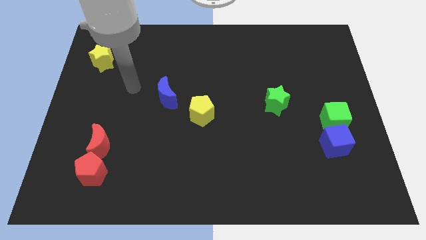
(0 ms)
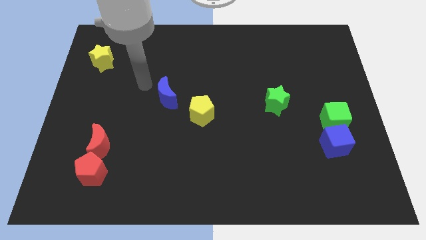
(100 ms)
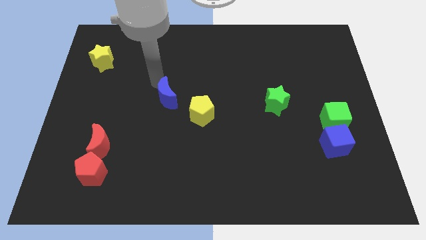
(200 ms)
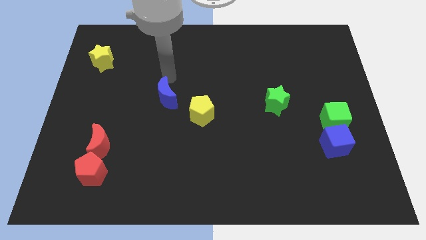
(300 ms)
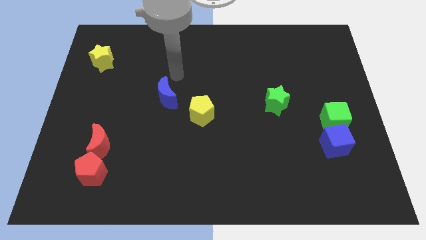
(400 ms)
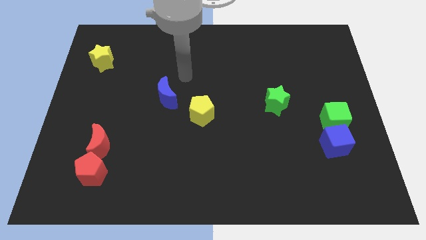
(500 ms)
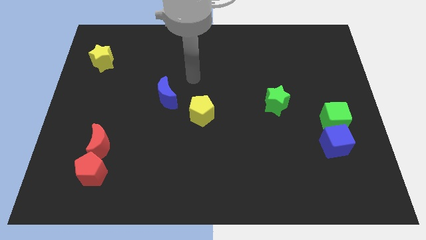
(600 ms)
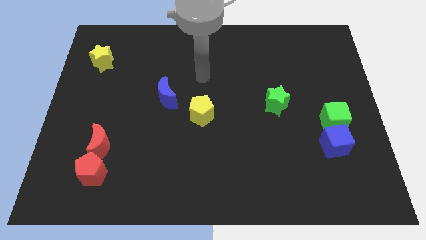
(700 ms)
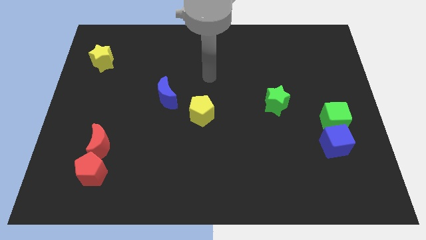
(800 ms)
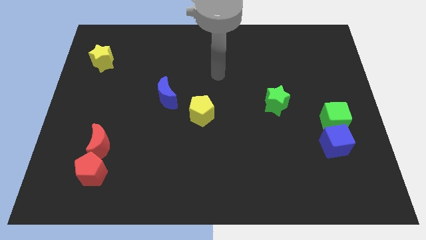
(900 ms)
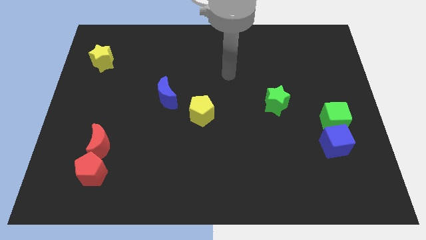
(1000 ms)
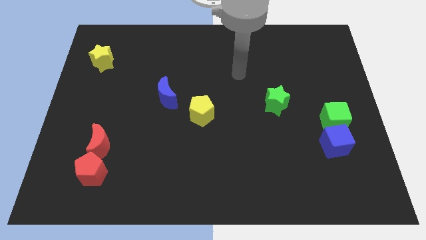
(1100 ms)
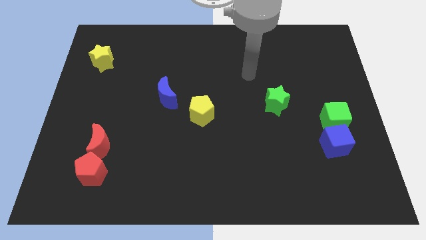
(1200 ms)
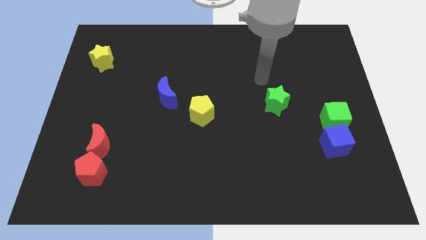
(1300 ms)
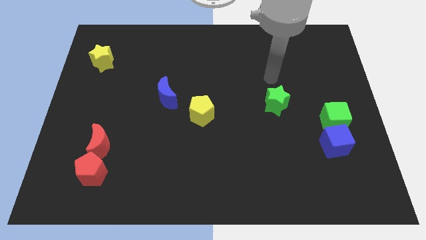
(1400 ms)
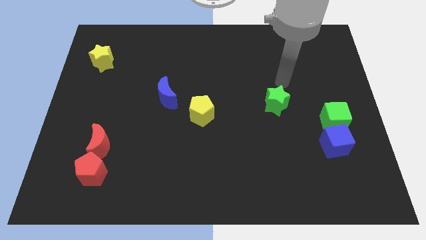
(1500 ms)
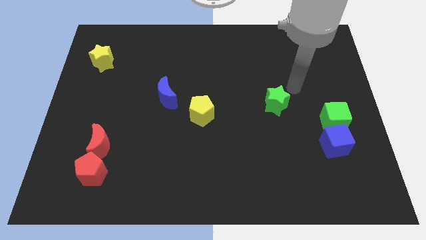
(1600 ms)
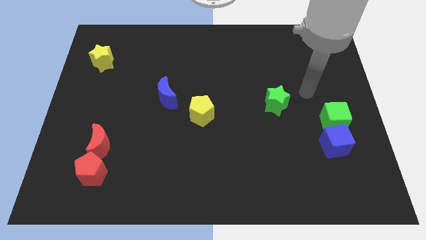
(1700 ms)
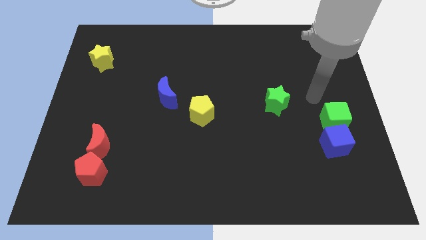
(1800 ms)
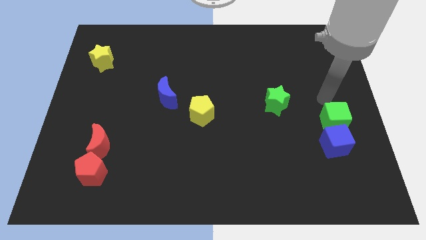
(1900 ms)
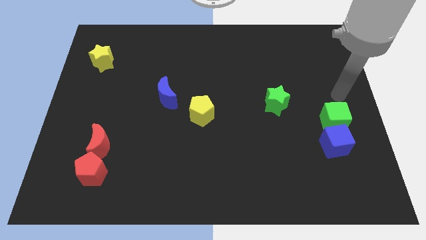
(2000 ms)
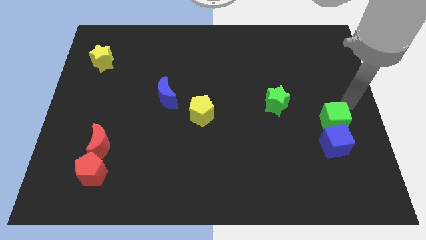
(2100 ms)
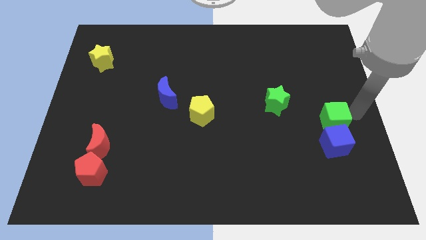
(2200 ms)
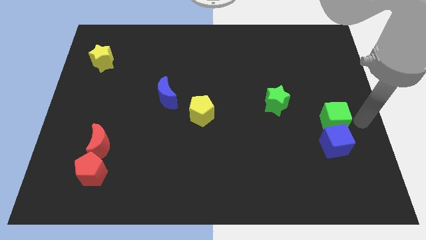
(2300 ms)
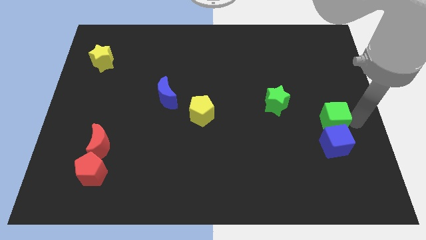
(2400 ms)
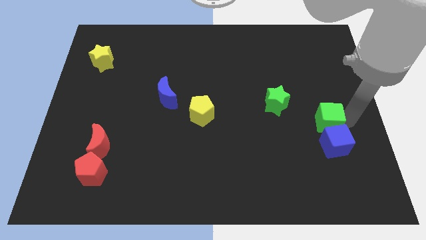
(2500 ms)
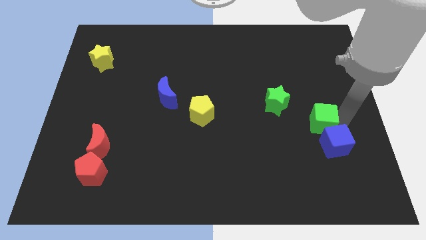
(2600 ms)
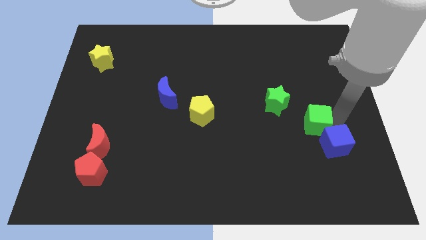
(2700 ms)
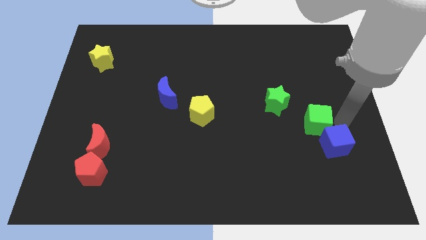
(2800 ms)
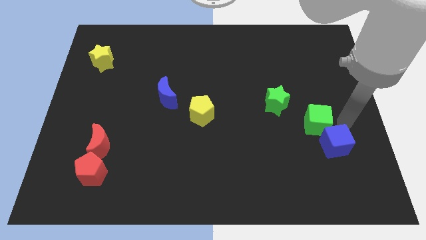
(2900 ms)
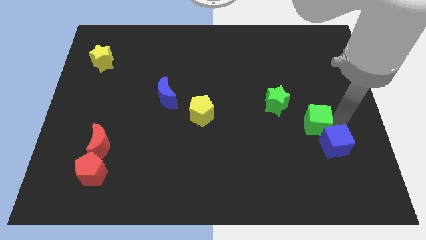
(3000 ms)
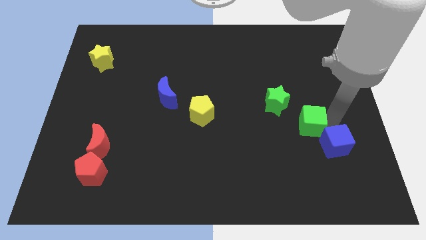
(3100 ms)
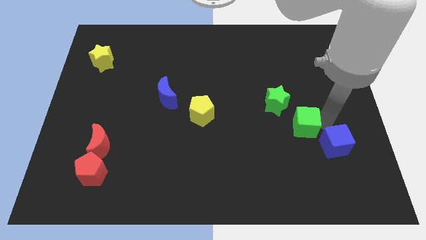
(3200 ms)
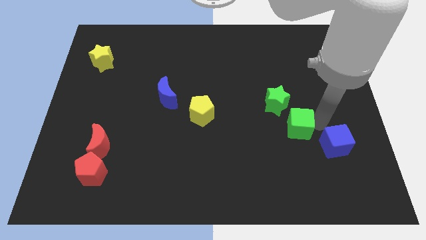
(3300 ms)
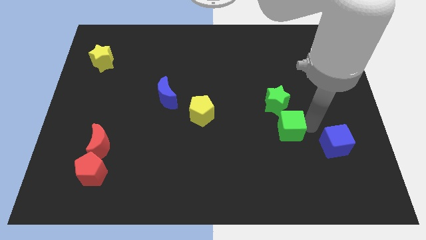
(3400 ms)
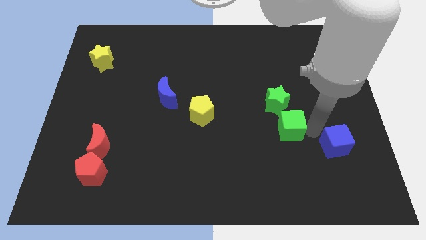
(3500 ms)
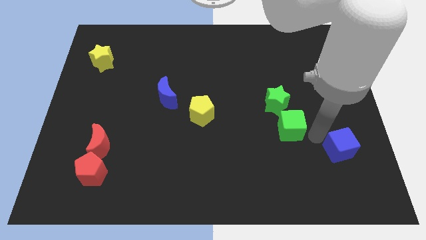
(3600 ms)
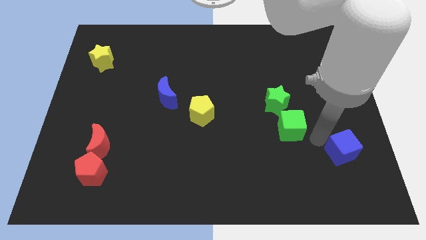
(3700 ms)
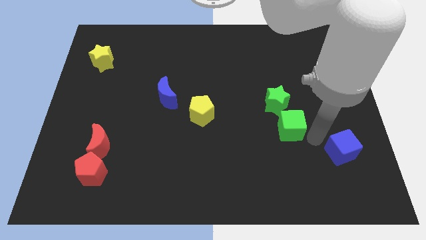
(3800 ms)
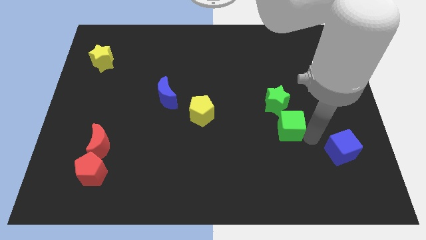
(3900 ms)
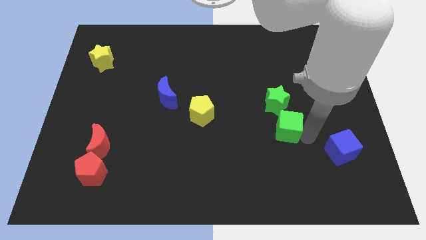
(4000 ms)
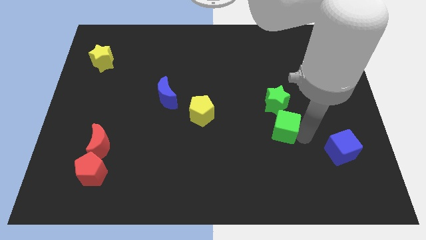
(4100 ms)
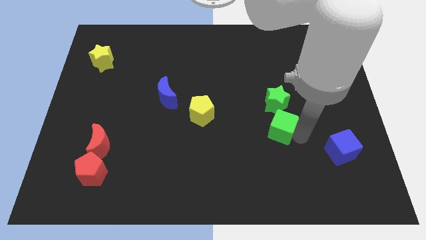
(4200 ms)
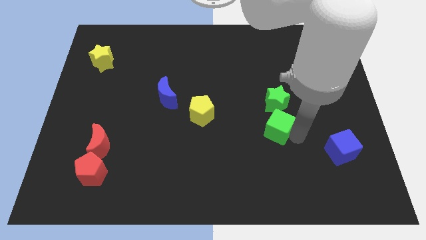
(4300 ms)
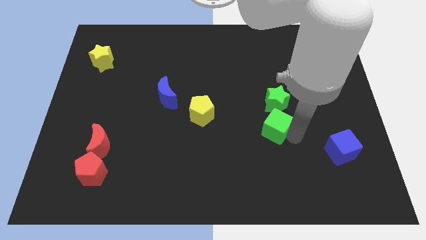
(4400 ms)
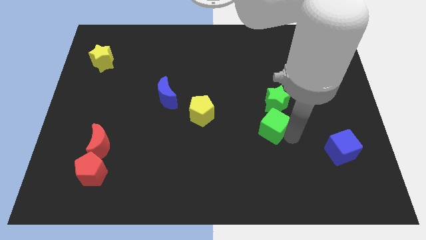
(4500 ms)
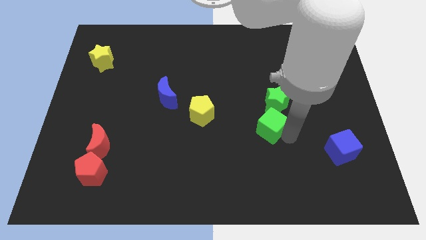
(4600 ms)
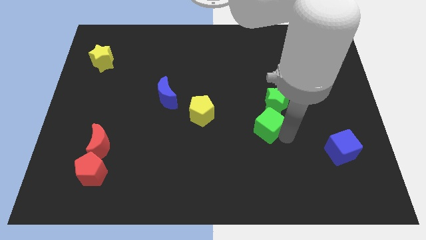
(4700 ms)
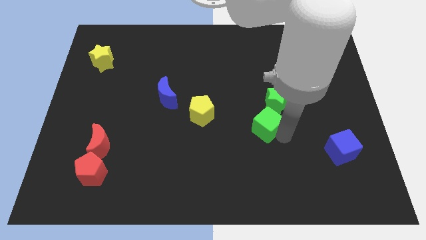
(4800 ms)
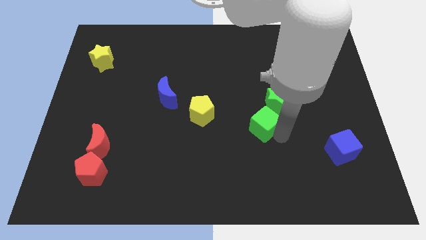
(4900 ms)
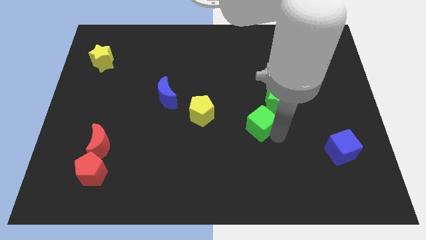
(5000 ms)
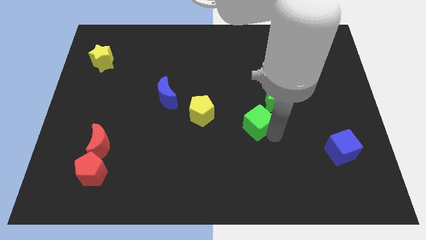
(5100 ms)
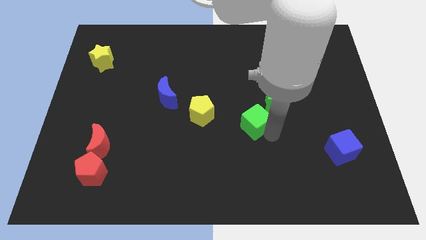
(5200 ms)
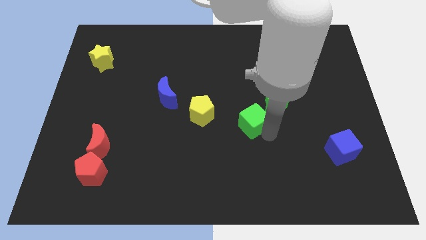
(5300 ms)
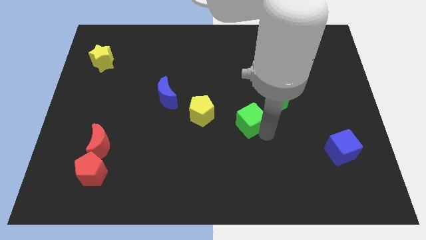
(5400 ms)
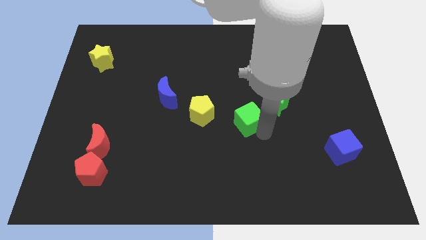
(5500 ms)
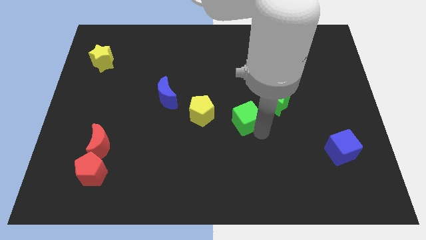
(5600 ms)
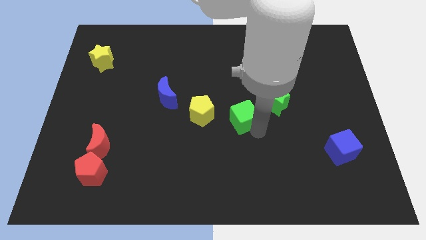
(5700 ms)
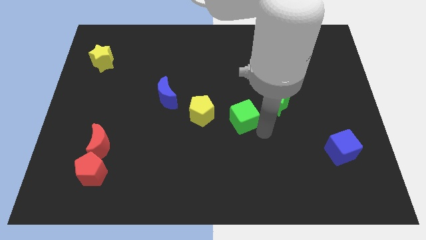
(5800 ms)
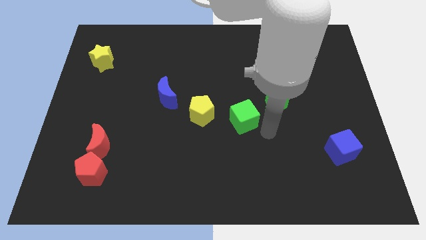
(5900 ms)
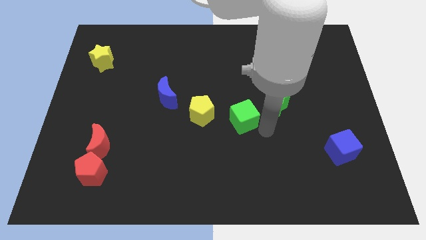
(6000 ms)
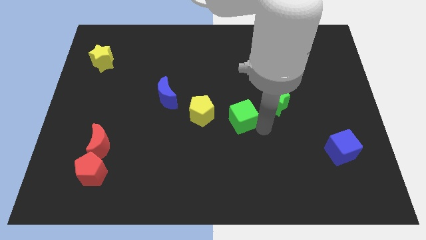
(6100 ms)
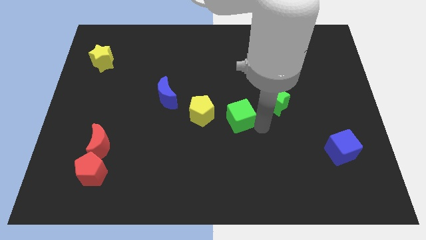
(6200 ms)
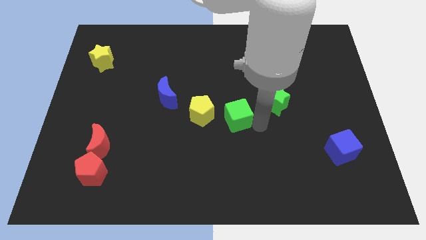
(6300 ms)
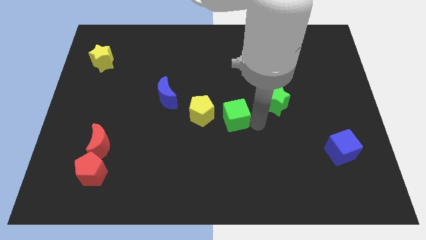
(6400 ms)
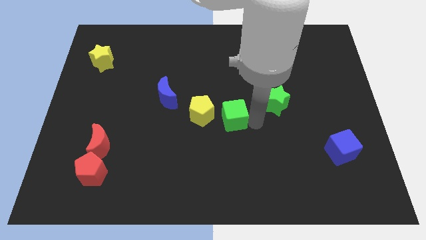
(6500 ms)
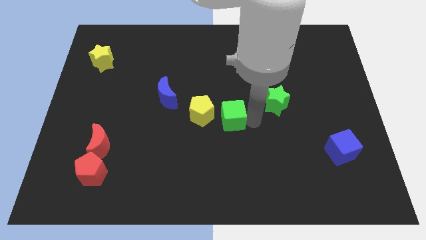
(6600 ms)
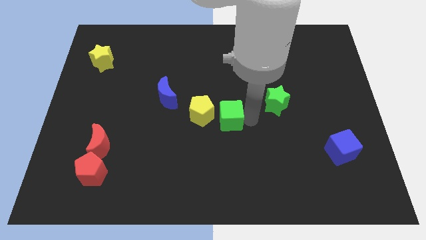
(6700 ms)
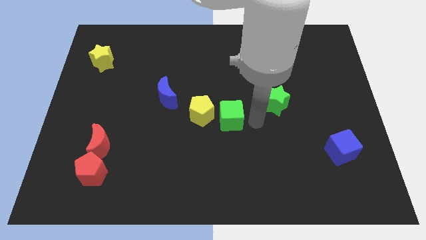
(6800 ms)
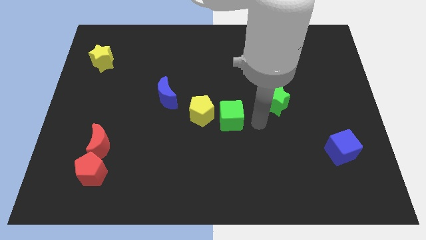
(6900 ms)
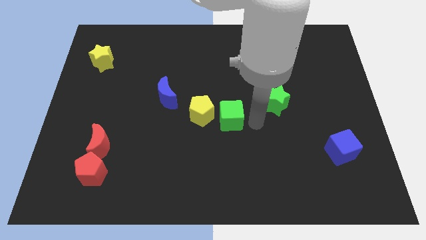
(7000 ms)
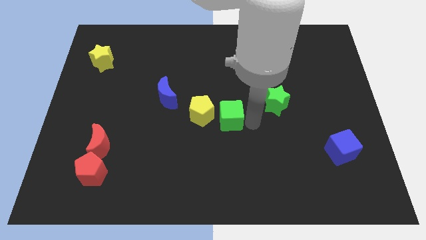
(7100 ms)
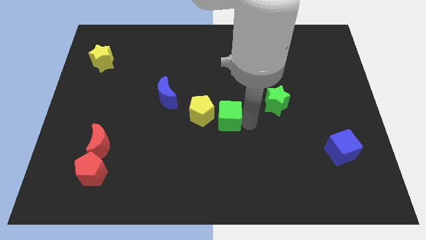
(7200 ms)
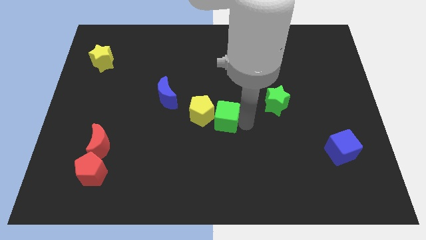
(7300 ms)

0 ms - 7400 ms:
move the green cube to the yellow pentagon
